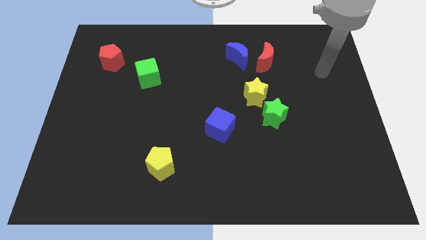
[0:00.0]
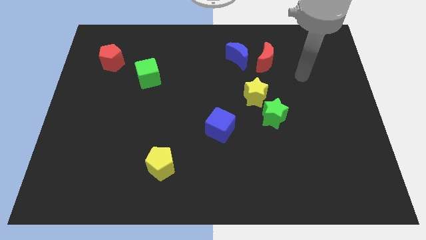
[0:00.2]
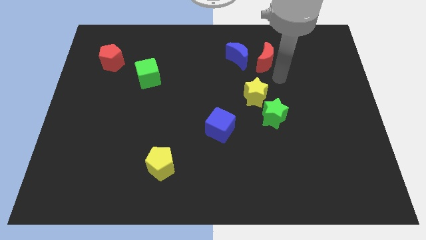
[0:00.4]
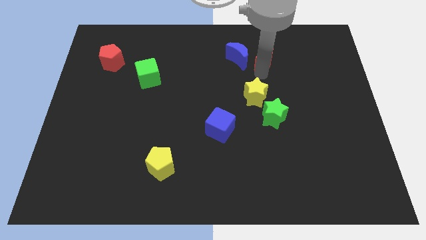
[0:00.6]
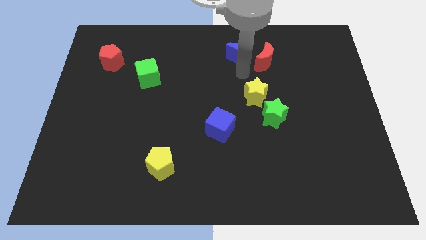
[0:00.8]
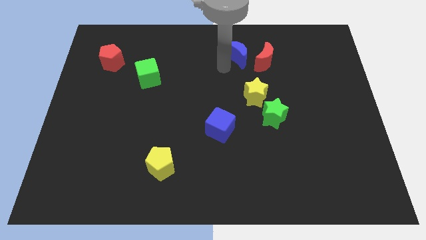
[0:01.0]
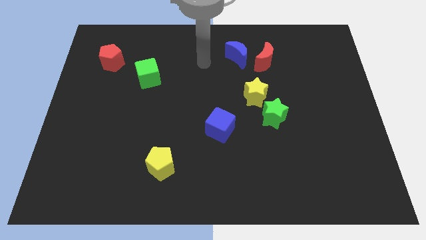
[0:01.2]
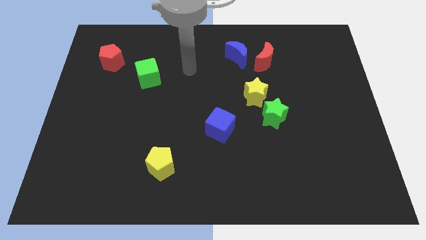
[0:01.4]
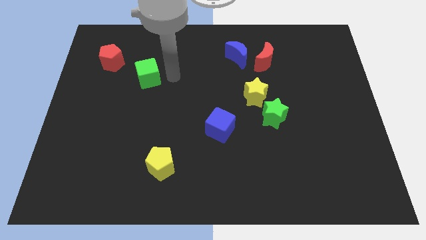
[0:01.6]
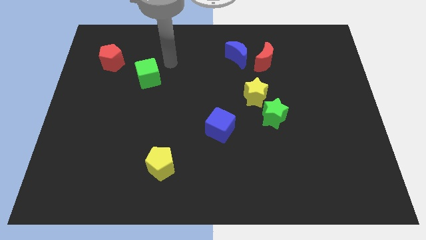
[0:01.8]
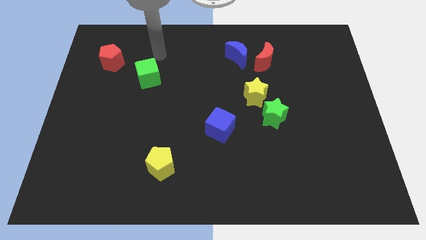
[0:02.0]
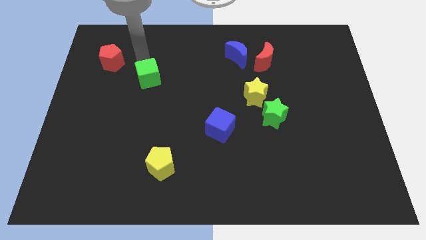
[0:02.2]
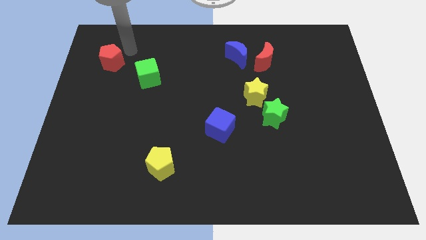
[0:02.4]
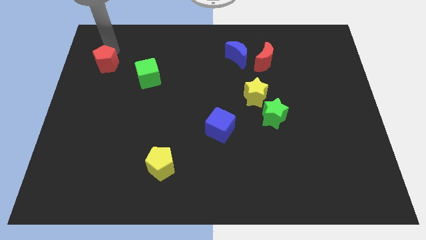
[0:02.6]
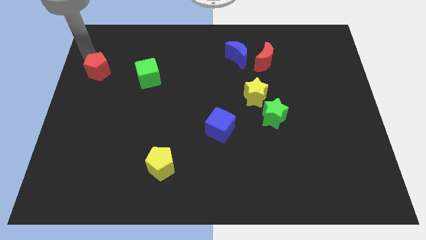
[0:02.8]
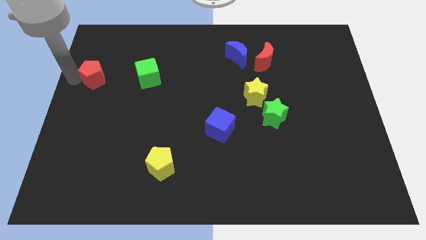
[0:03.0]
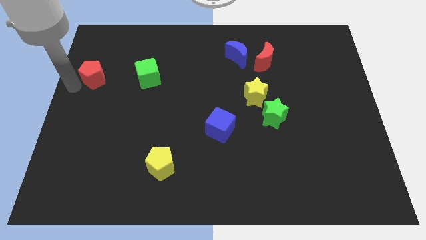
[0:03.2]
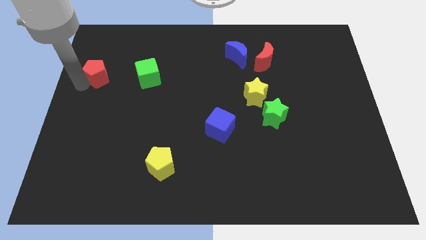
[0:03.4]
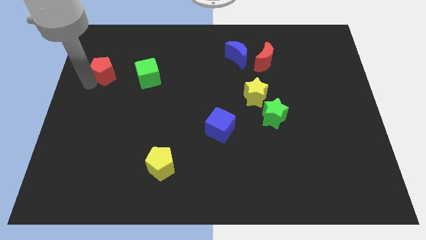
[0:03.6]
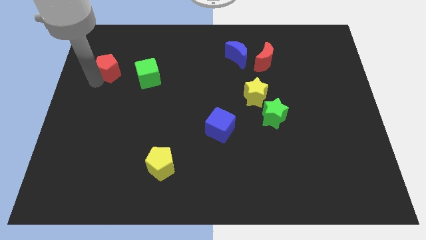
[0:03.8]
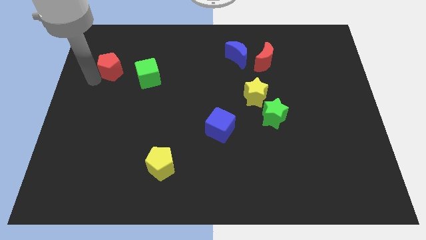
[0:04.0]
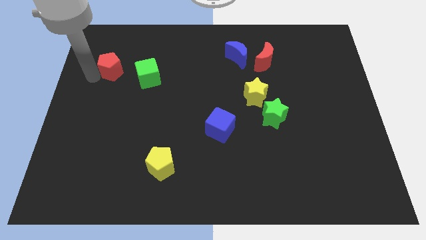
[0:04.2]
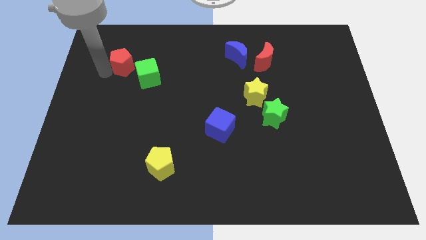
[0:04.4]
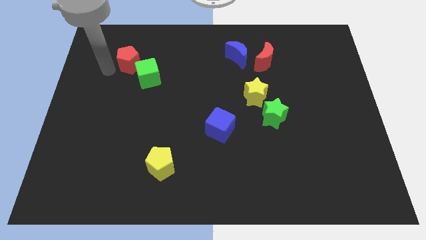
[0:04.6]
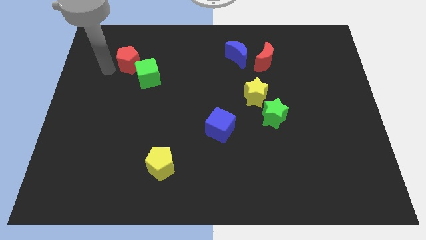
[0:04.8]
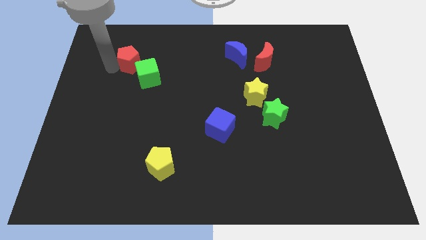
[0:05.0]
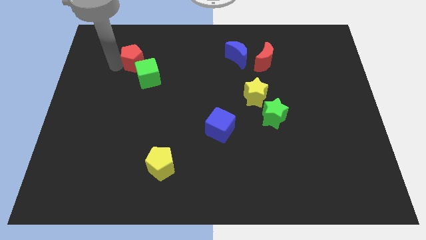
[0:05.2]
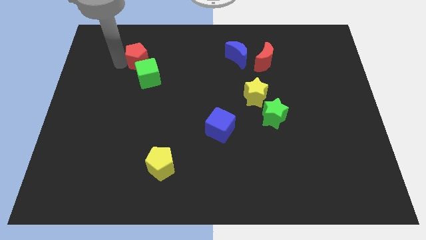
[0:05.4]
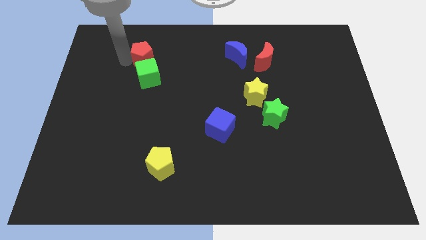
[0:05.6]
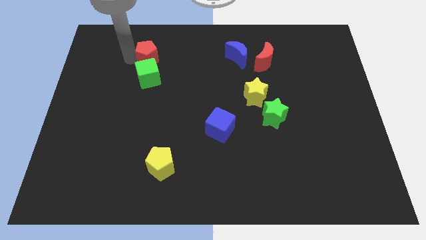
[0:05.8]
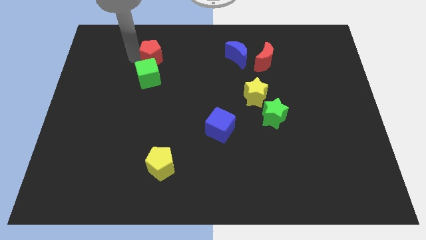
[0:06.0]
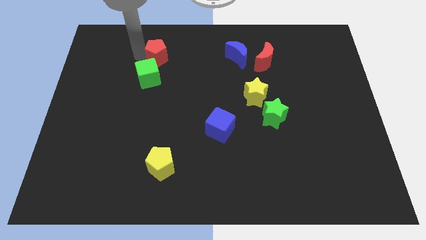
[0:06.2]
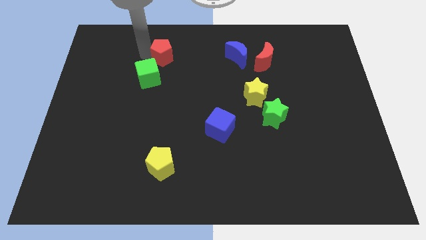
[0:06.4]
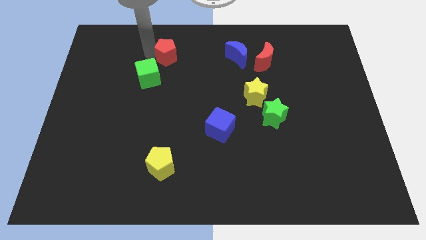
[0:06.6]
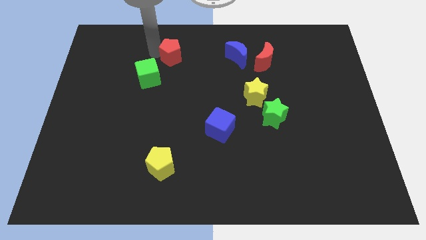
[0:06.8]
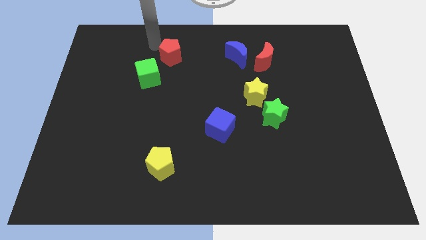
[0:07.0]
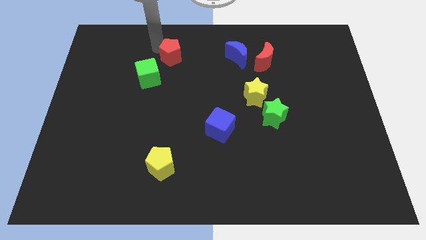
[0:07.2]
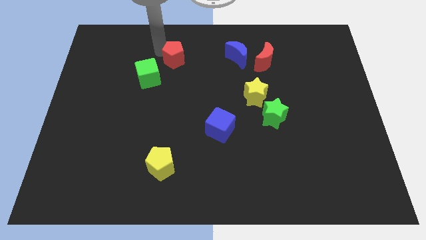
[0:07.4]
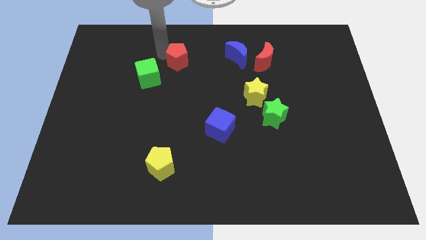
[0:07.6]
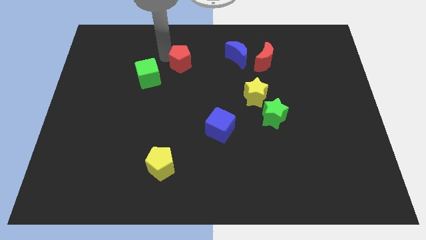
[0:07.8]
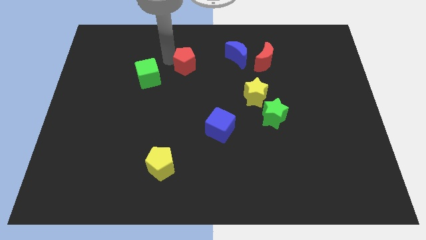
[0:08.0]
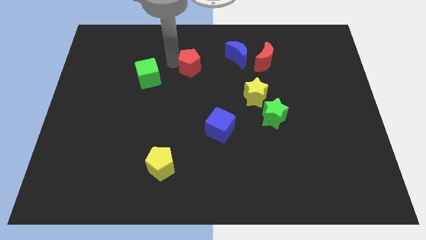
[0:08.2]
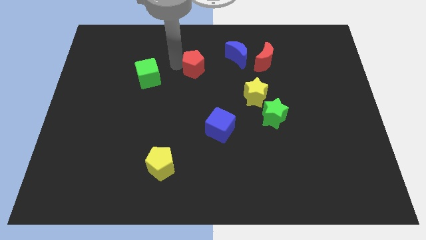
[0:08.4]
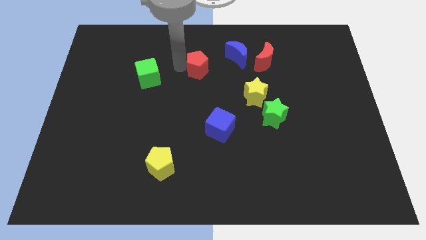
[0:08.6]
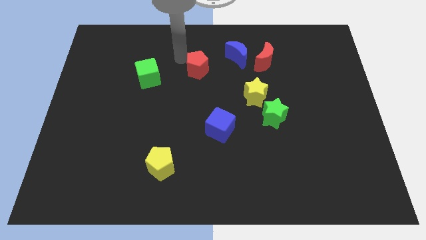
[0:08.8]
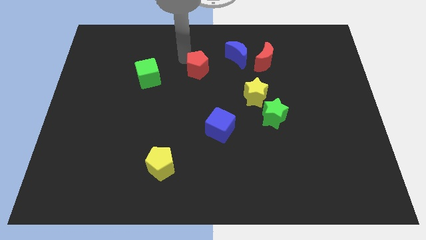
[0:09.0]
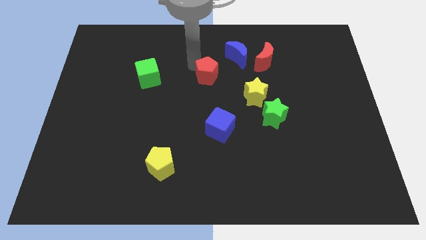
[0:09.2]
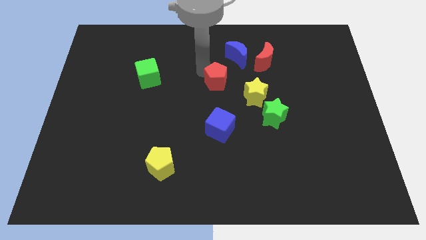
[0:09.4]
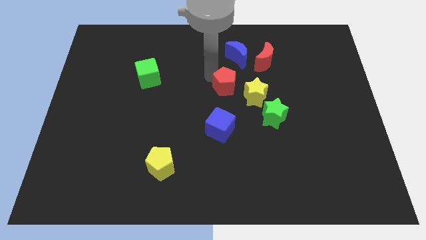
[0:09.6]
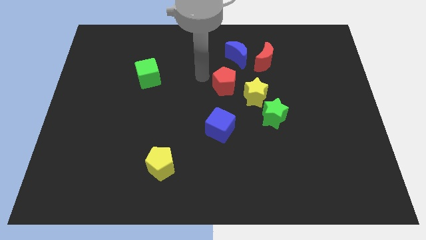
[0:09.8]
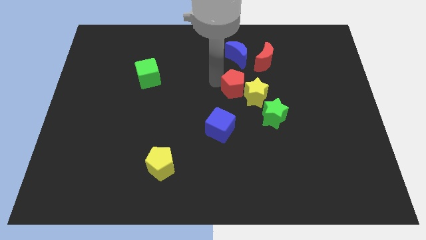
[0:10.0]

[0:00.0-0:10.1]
move the red pentagon towards the yellow star

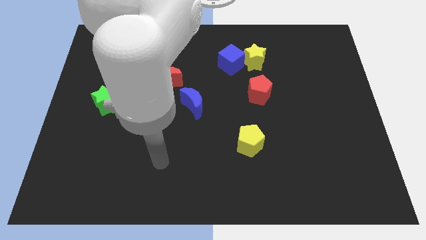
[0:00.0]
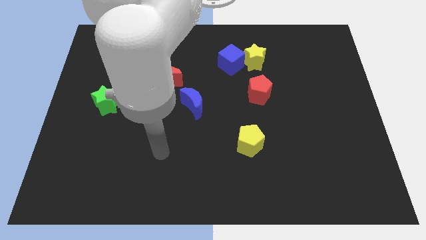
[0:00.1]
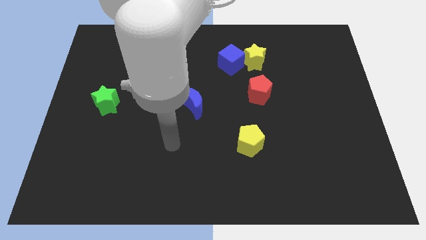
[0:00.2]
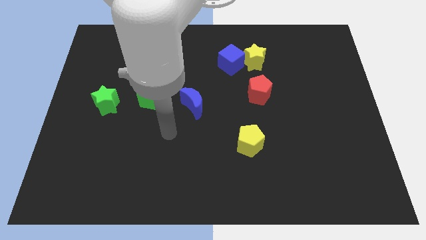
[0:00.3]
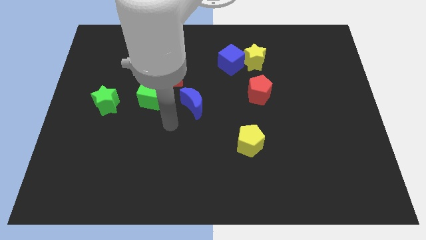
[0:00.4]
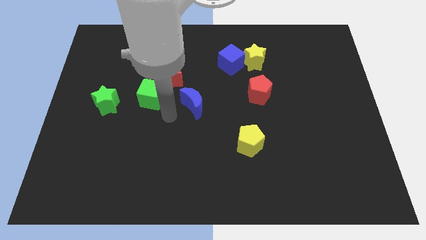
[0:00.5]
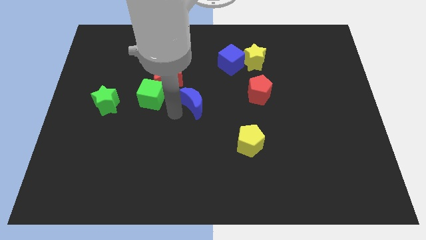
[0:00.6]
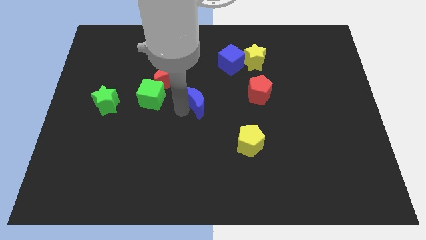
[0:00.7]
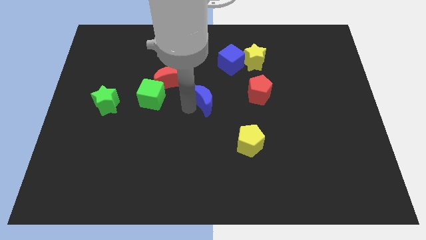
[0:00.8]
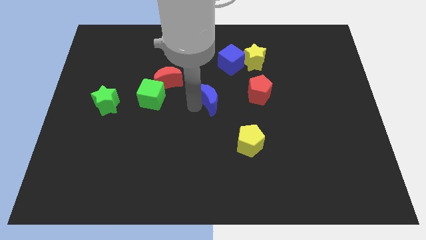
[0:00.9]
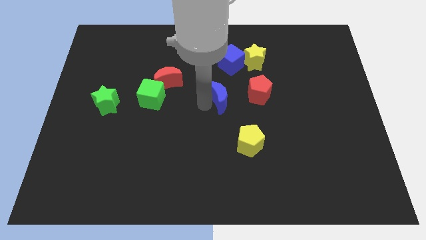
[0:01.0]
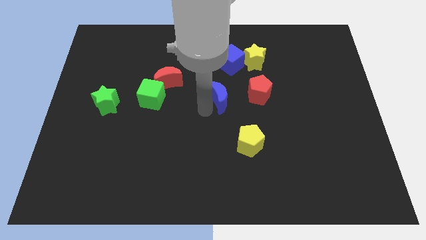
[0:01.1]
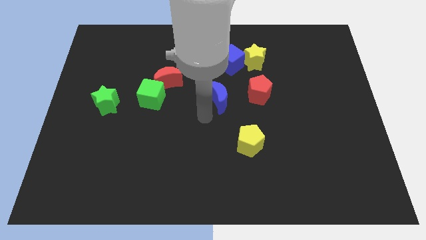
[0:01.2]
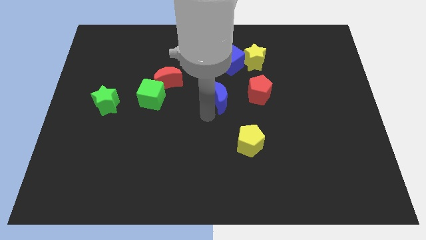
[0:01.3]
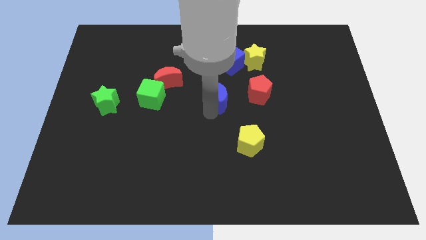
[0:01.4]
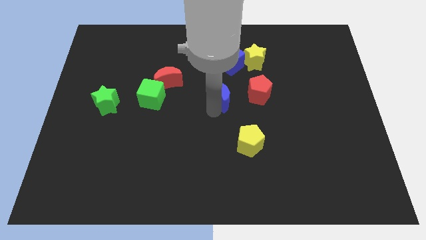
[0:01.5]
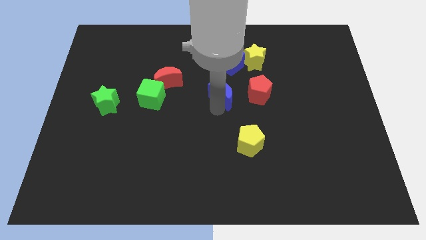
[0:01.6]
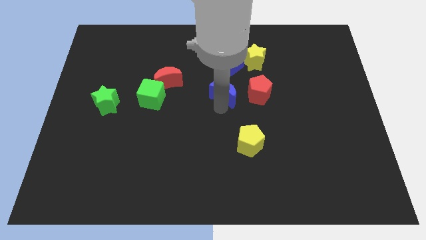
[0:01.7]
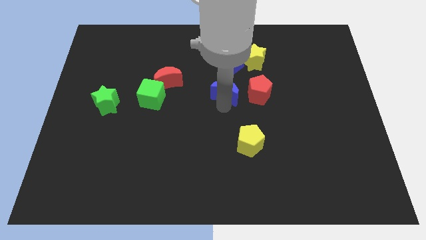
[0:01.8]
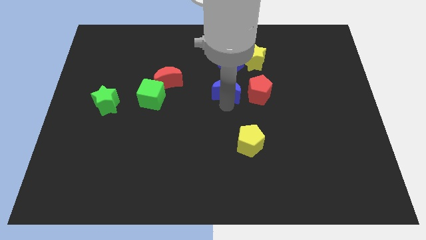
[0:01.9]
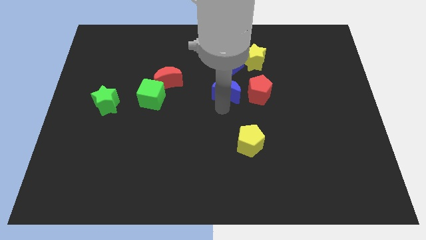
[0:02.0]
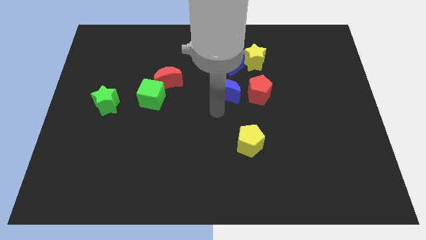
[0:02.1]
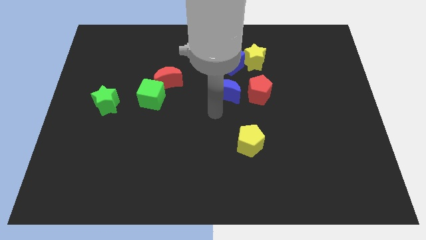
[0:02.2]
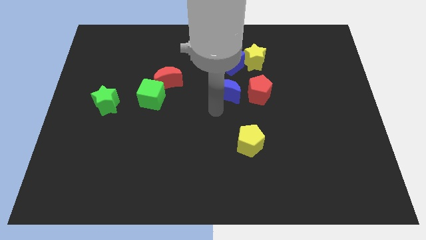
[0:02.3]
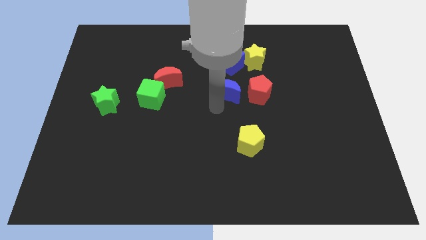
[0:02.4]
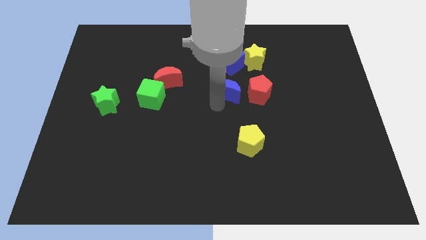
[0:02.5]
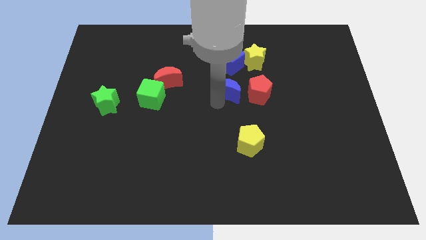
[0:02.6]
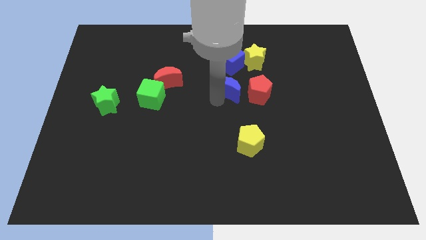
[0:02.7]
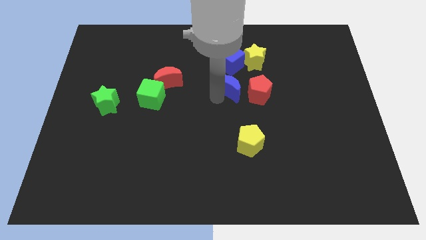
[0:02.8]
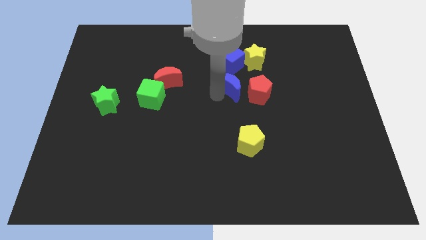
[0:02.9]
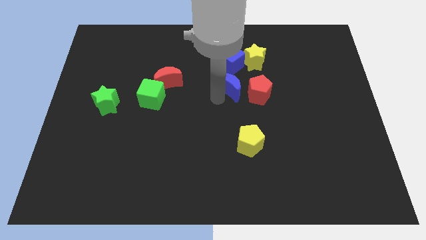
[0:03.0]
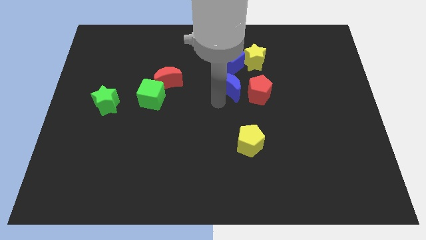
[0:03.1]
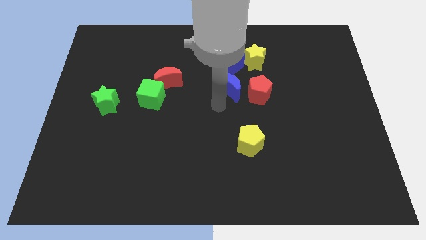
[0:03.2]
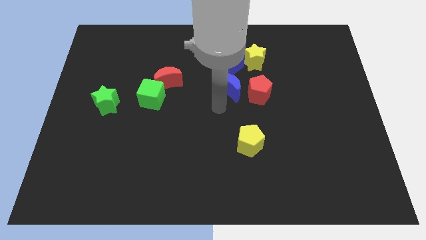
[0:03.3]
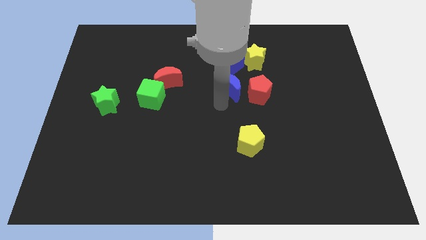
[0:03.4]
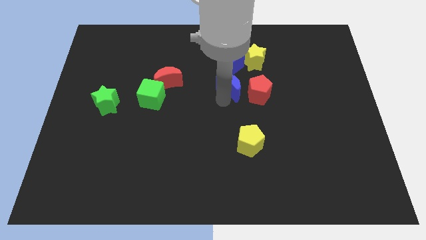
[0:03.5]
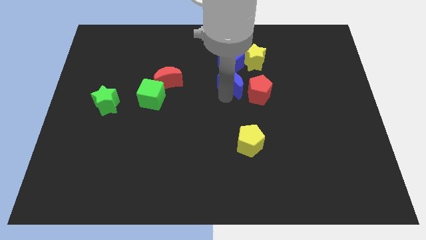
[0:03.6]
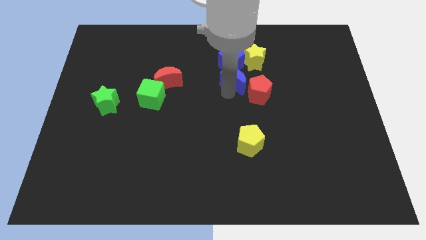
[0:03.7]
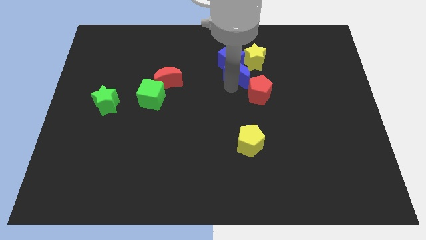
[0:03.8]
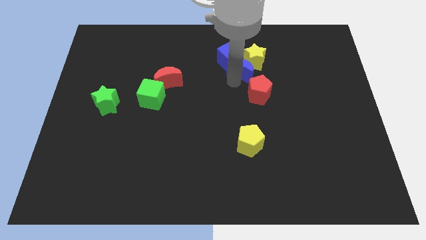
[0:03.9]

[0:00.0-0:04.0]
put the blue moon next to the yellow star
